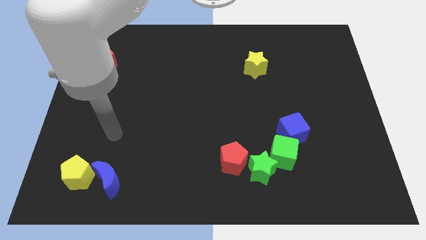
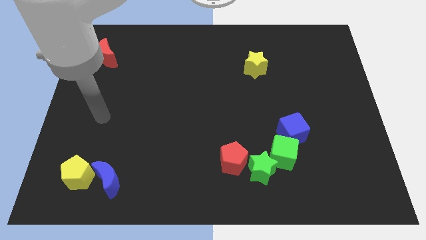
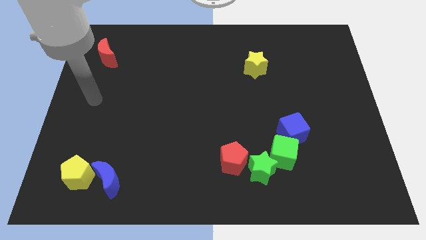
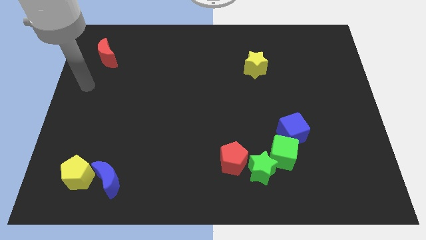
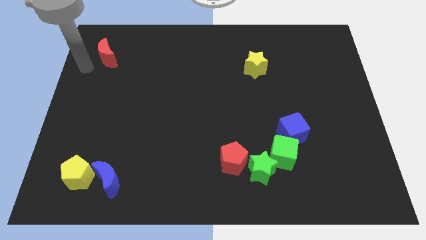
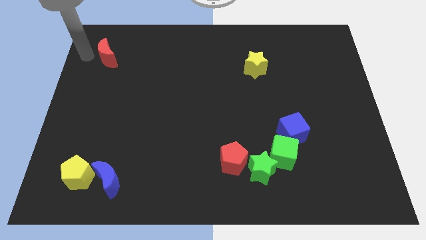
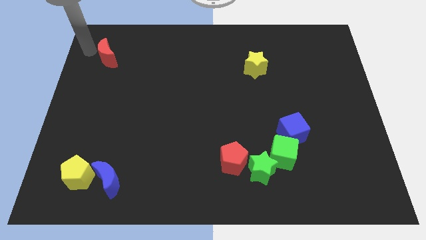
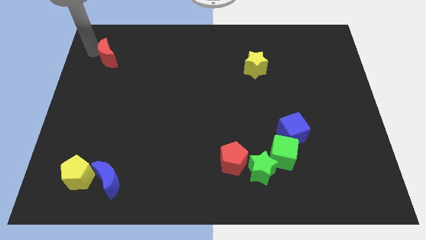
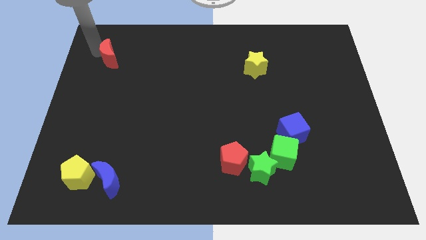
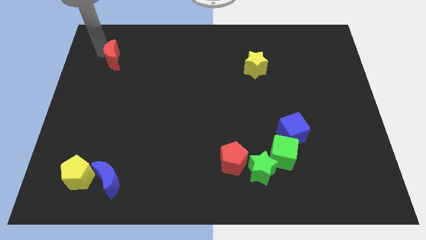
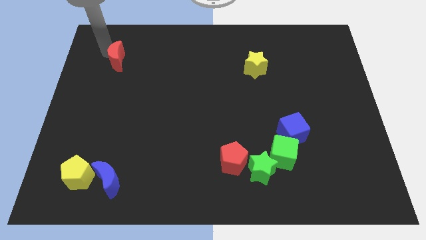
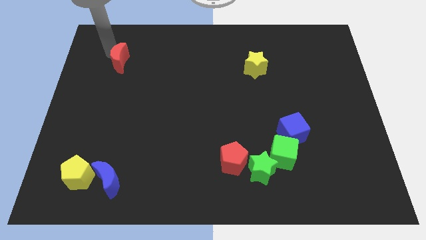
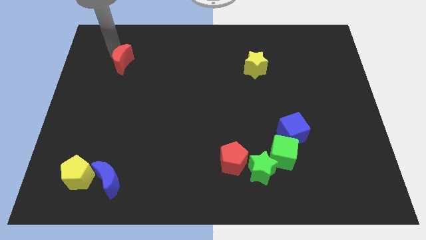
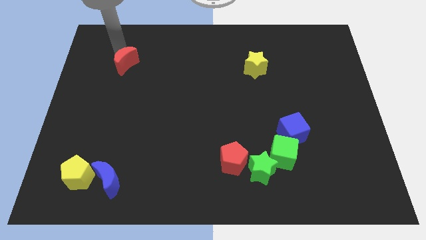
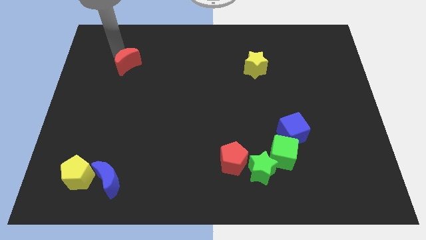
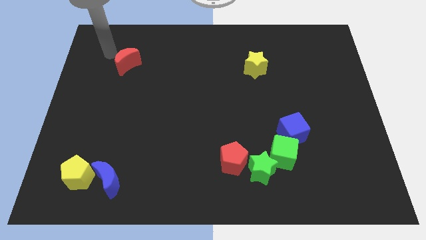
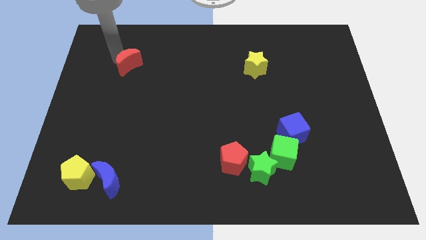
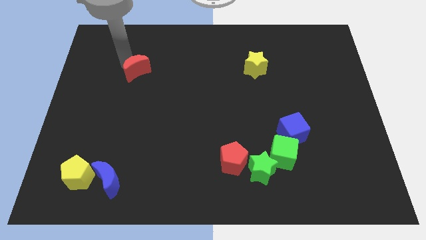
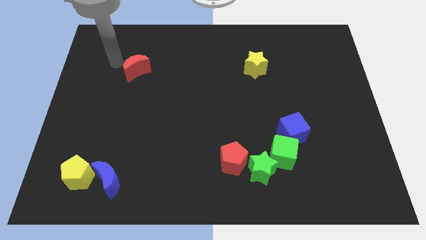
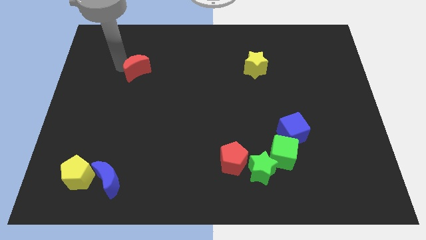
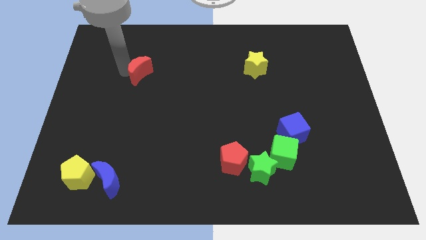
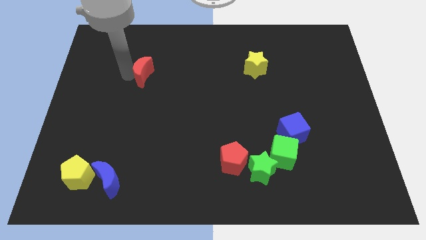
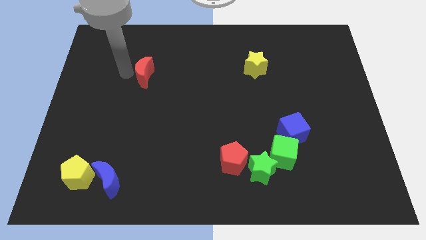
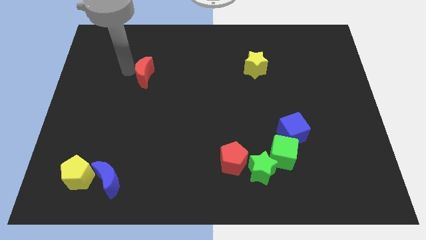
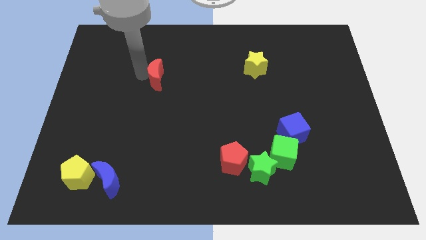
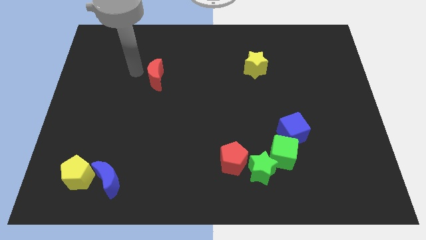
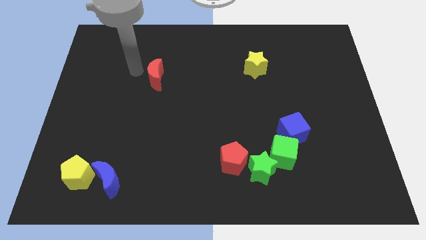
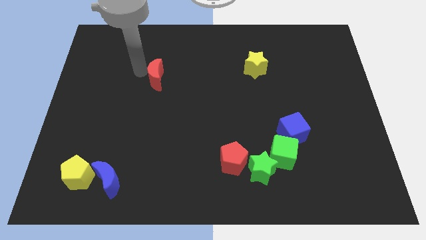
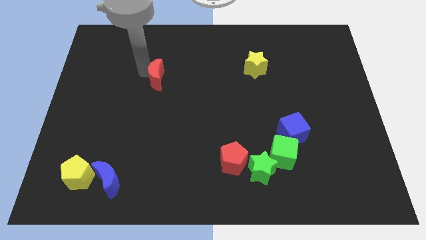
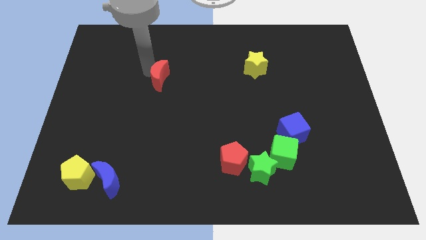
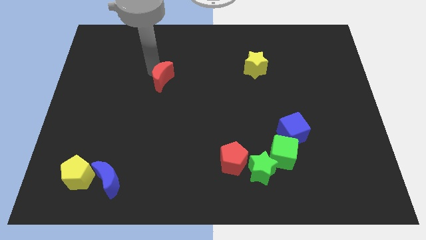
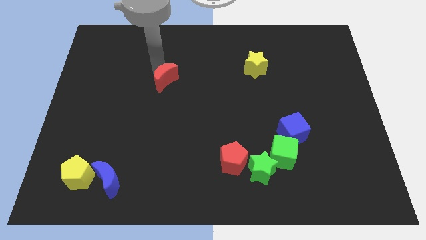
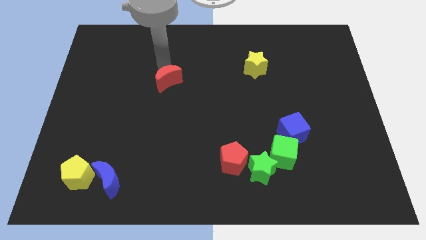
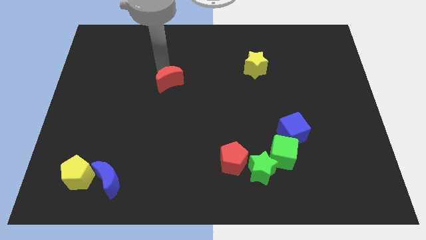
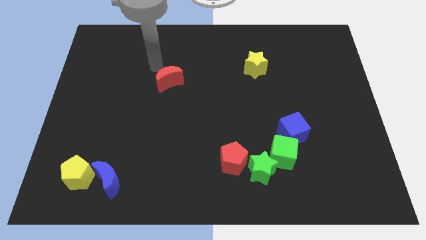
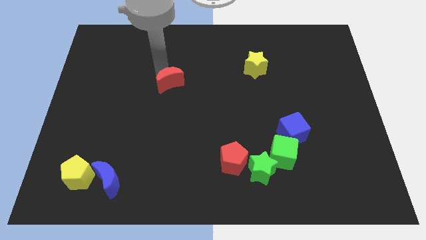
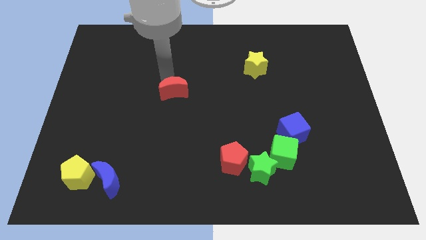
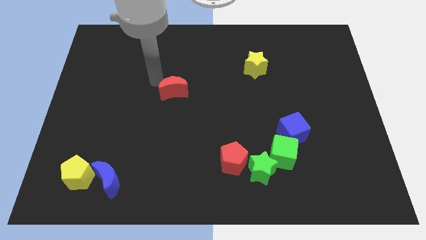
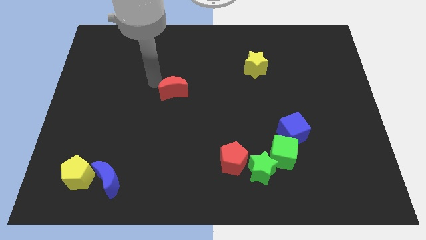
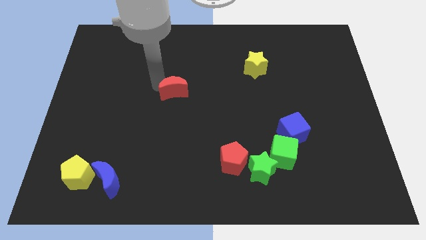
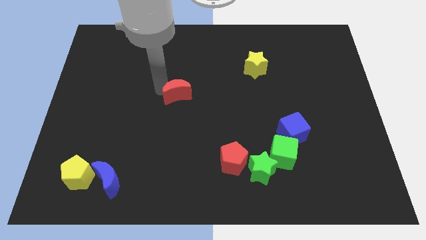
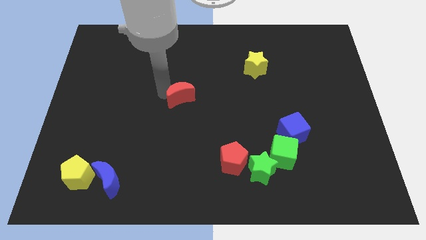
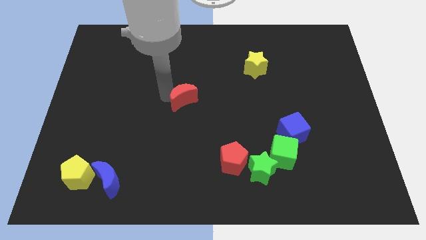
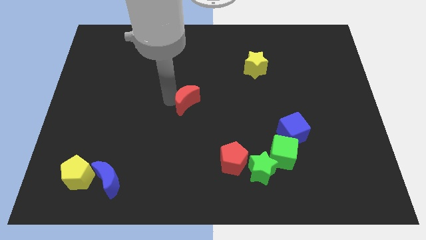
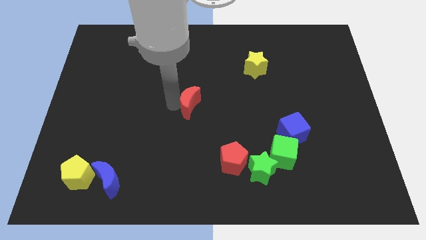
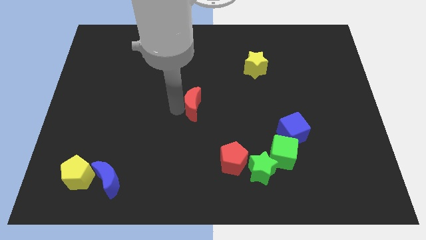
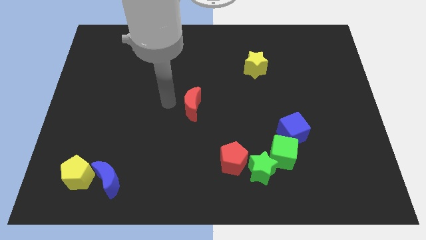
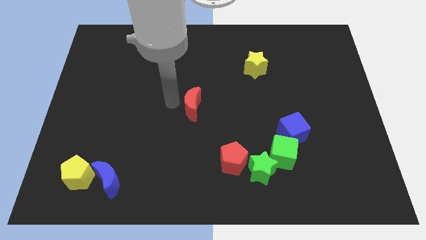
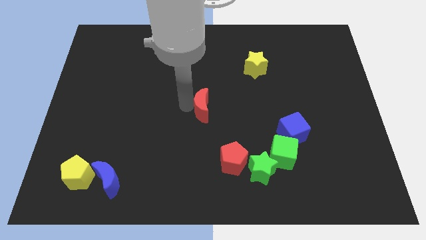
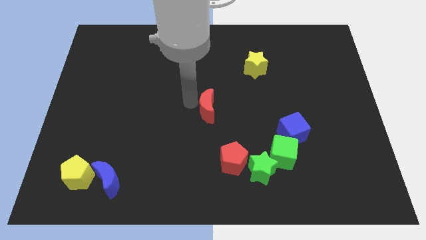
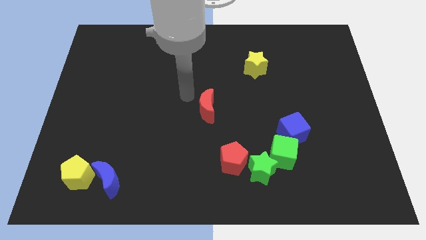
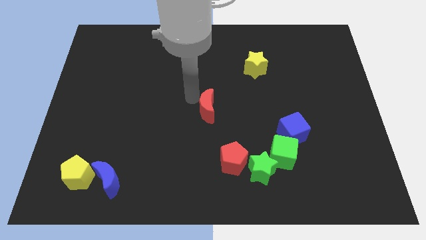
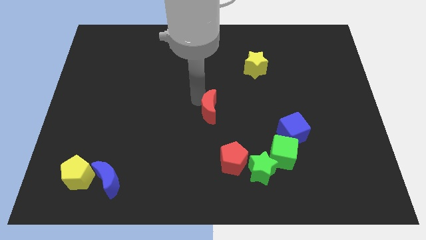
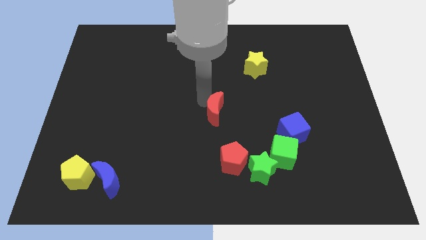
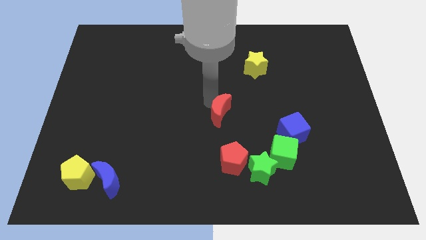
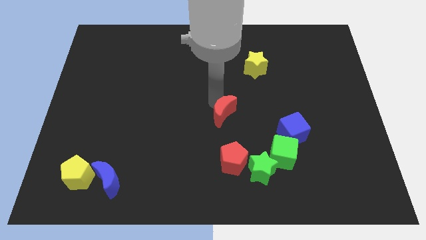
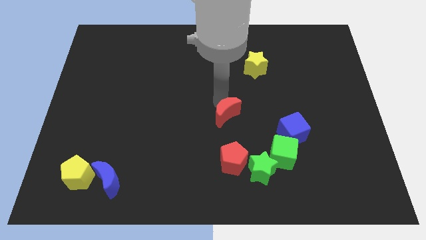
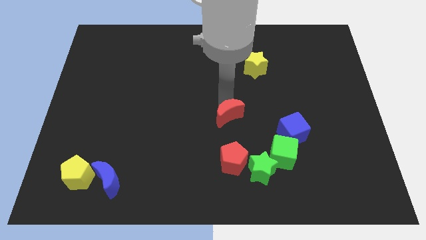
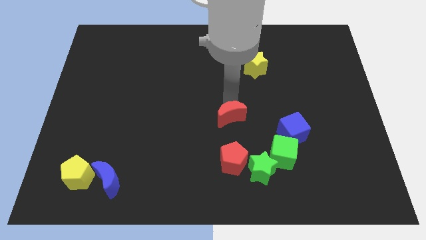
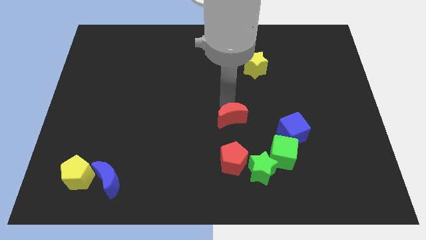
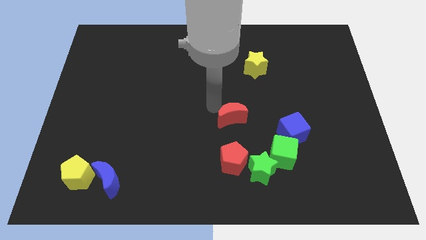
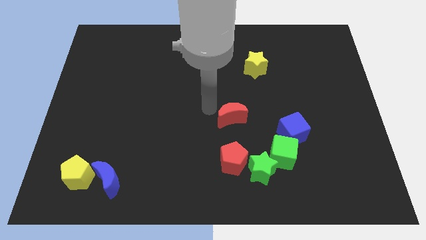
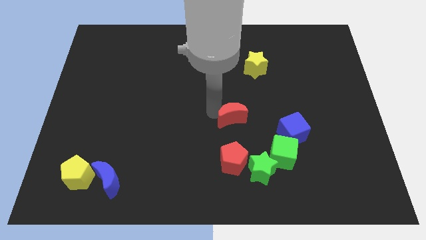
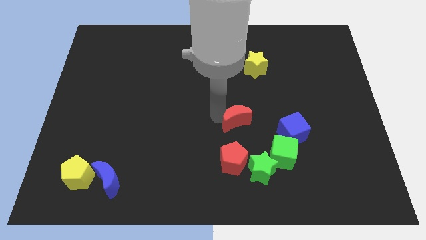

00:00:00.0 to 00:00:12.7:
put the red moon above the green star

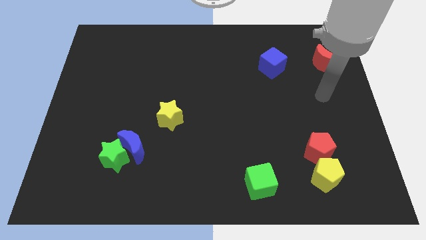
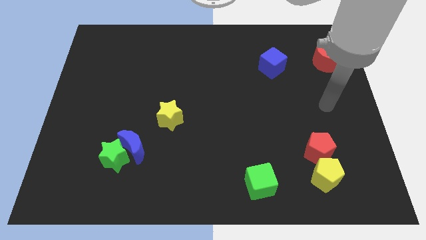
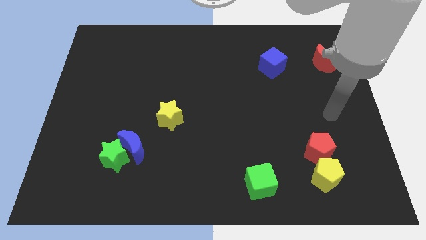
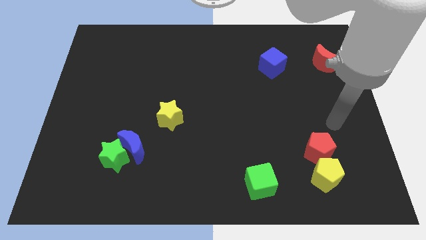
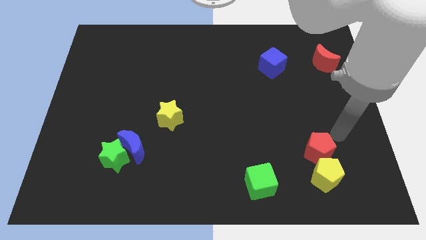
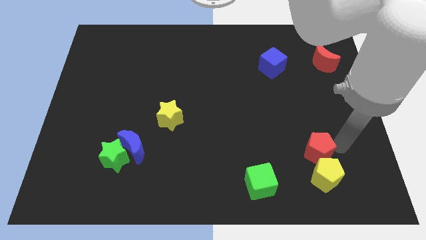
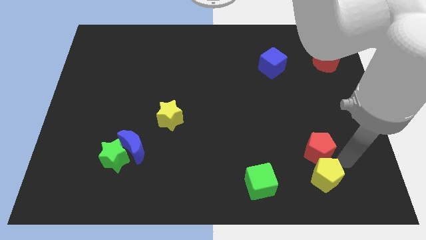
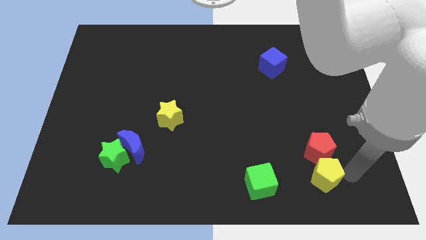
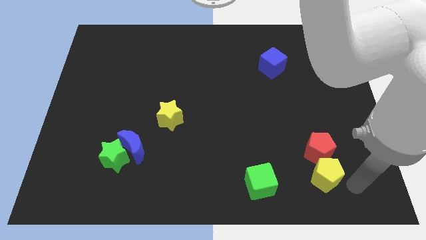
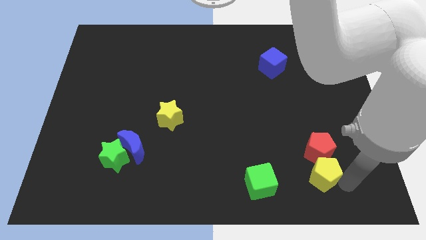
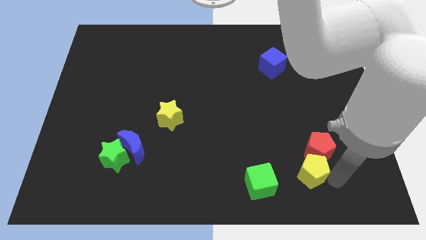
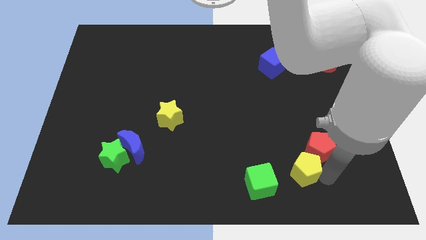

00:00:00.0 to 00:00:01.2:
put the yellow pentagon to the top right side of the green cube
